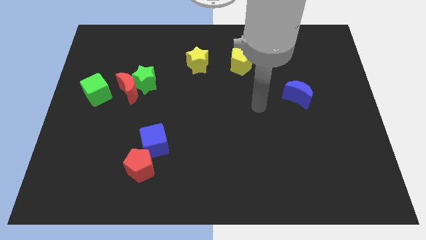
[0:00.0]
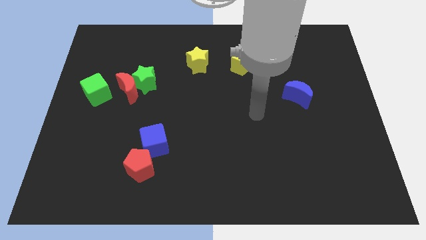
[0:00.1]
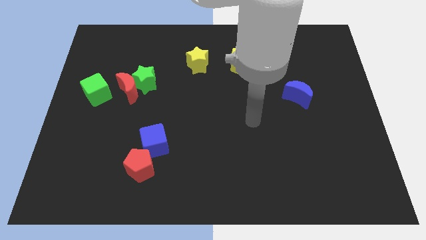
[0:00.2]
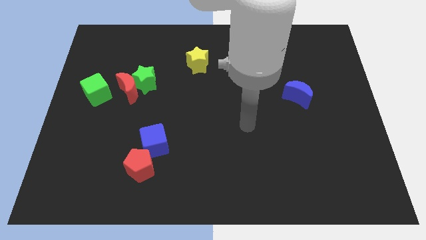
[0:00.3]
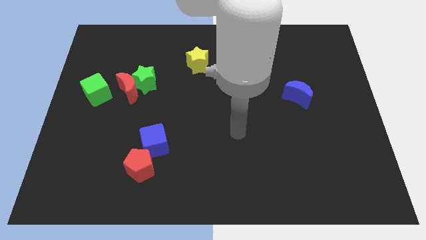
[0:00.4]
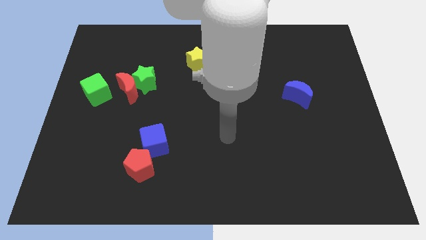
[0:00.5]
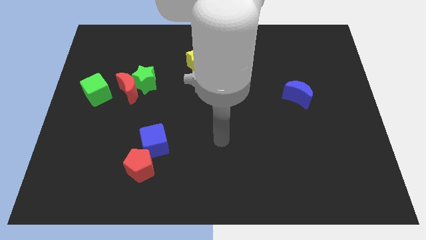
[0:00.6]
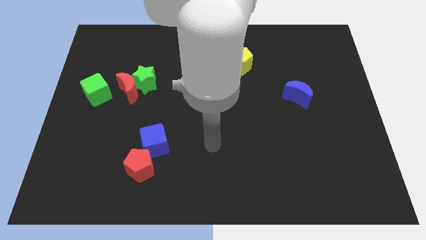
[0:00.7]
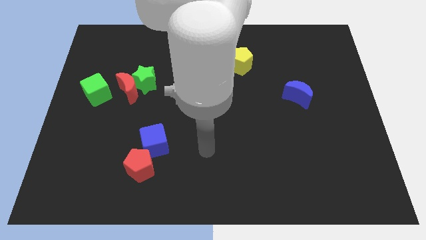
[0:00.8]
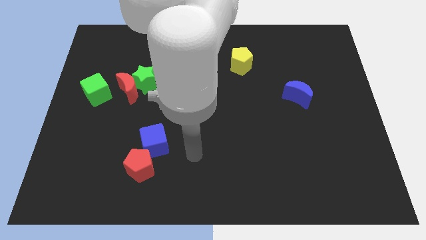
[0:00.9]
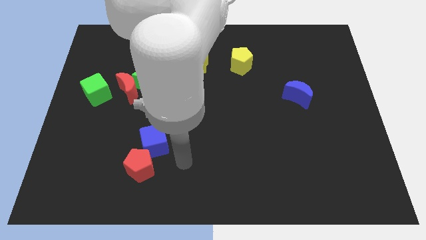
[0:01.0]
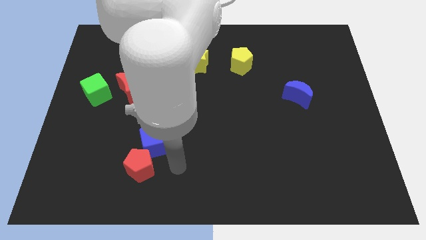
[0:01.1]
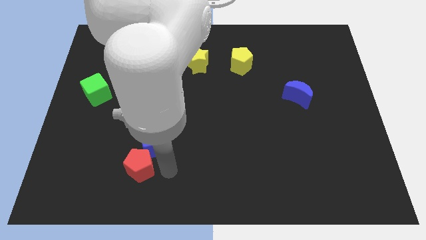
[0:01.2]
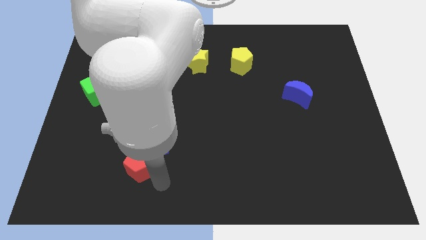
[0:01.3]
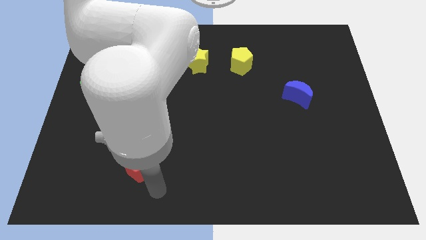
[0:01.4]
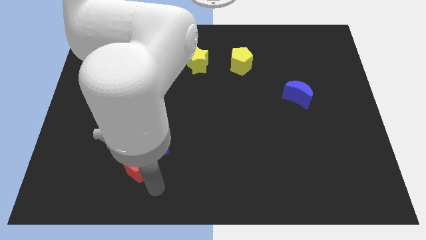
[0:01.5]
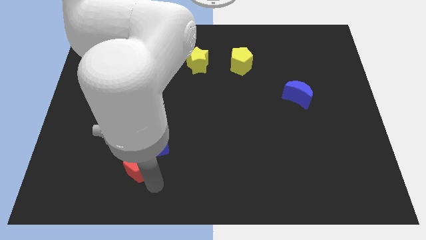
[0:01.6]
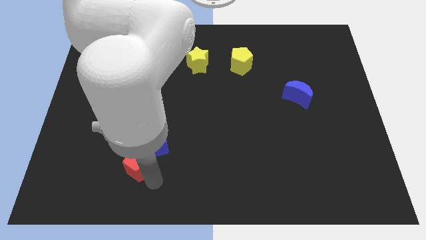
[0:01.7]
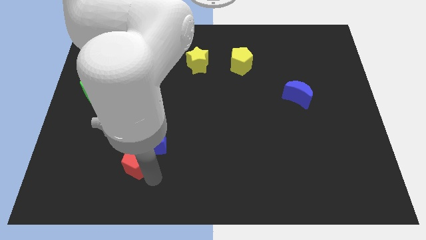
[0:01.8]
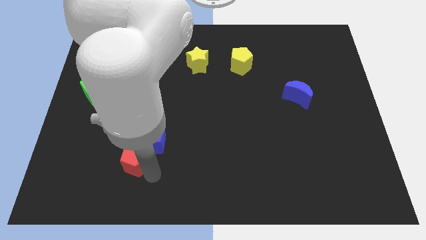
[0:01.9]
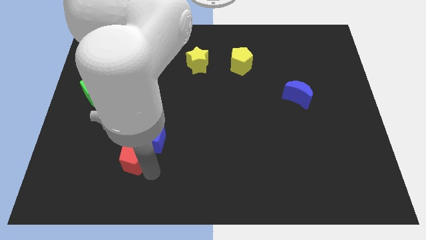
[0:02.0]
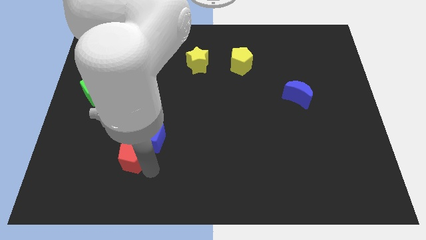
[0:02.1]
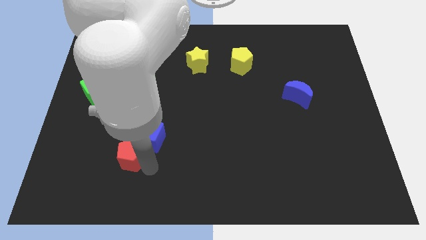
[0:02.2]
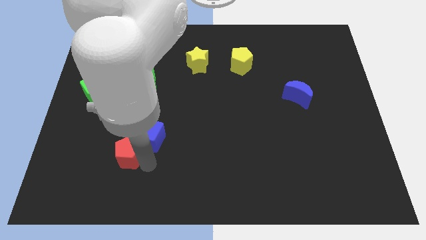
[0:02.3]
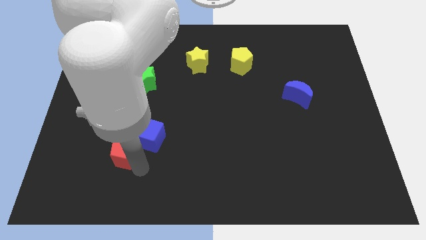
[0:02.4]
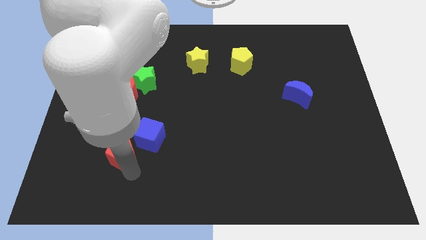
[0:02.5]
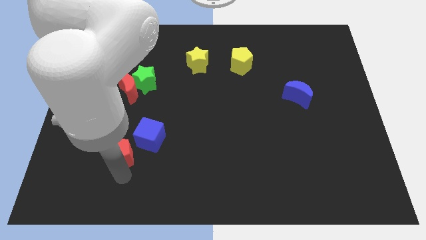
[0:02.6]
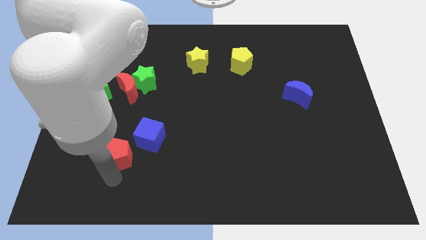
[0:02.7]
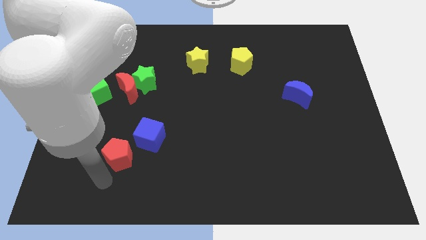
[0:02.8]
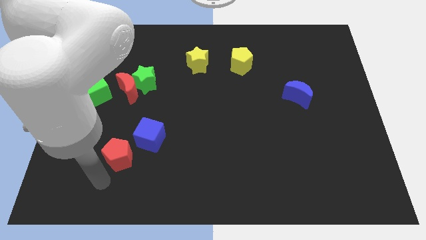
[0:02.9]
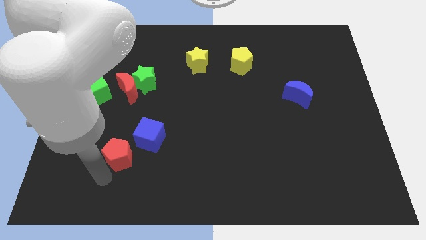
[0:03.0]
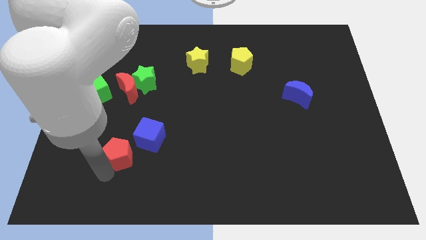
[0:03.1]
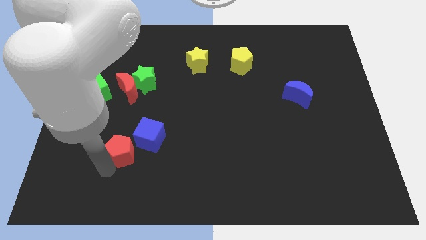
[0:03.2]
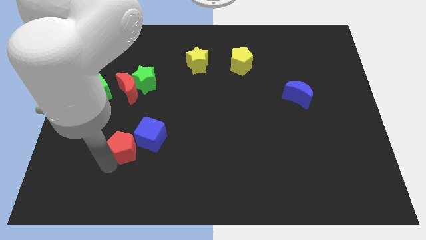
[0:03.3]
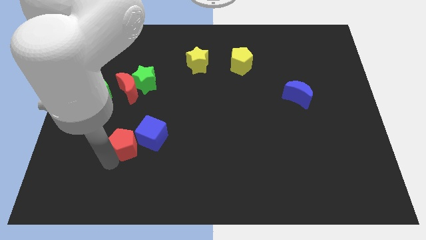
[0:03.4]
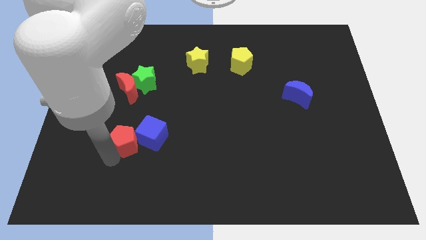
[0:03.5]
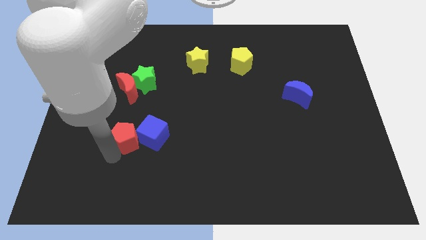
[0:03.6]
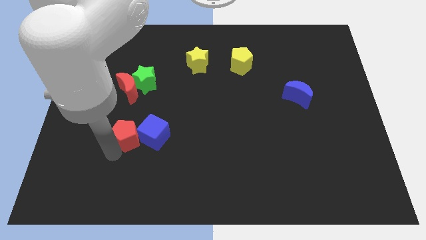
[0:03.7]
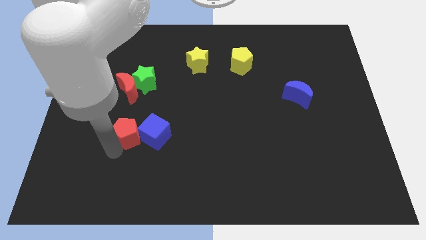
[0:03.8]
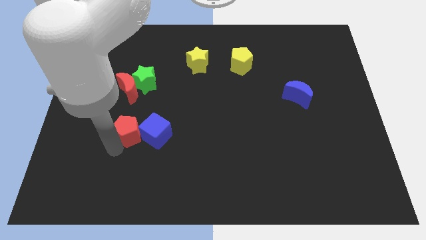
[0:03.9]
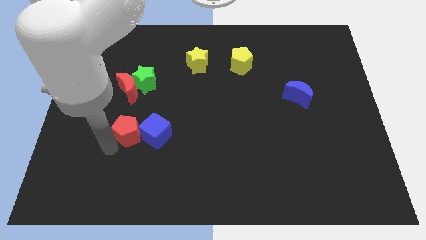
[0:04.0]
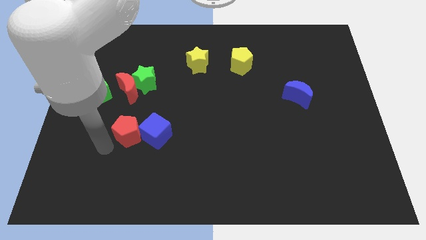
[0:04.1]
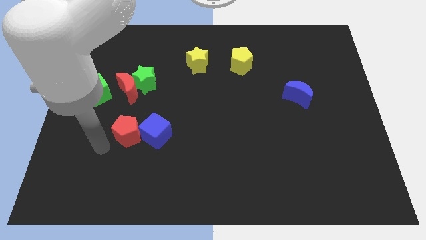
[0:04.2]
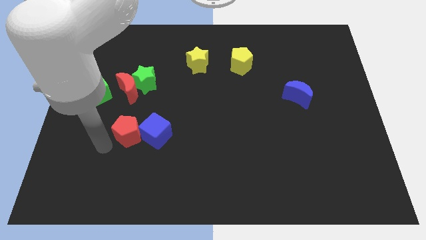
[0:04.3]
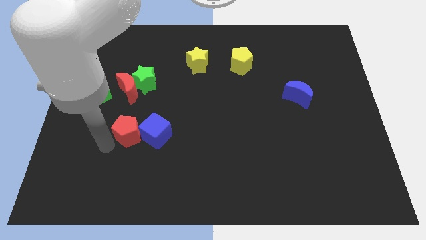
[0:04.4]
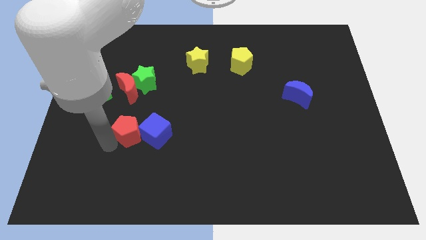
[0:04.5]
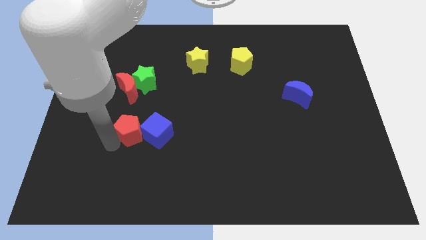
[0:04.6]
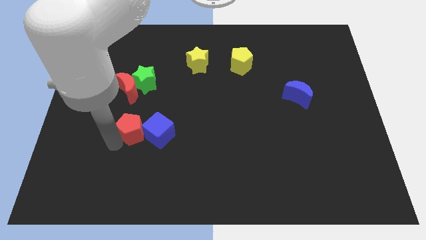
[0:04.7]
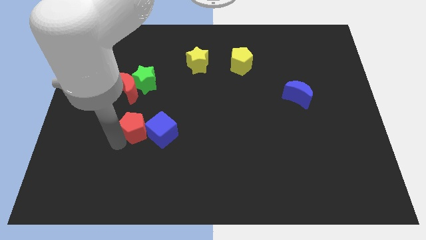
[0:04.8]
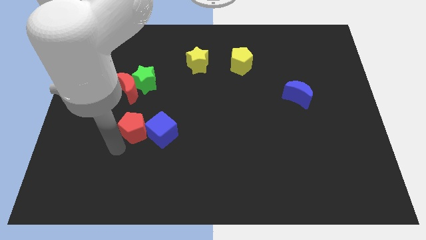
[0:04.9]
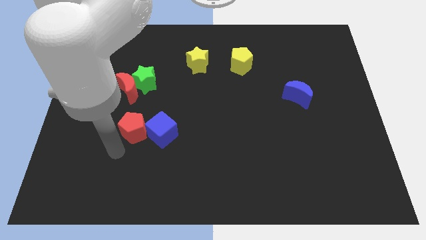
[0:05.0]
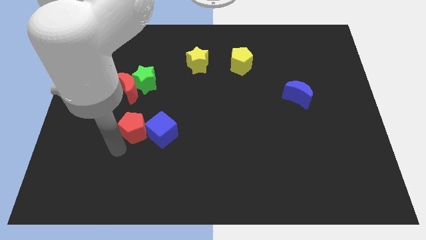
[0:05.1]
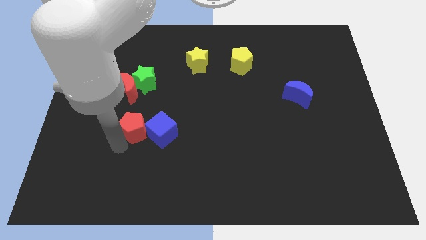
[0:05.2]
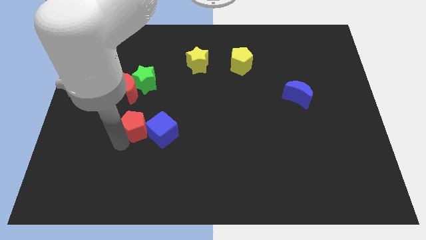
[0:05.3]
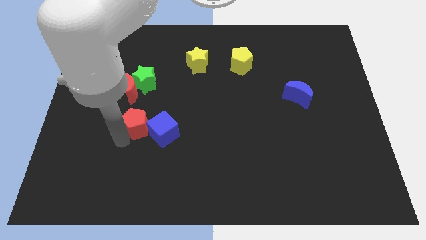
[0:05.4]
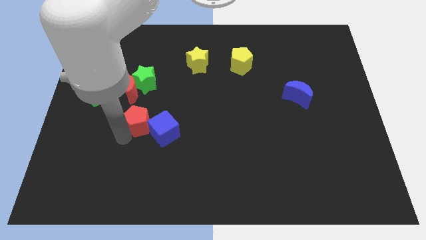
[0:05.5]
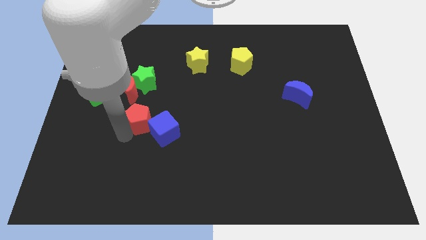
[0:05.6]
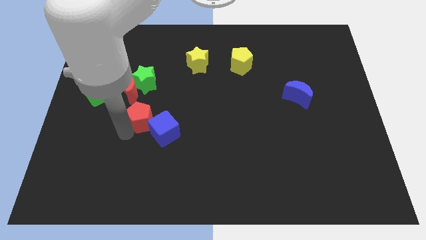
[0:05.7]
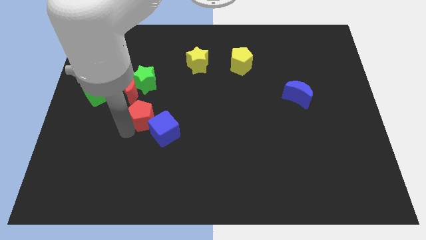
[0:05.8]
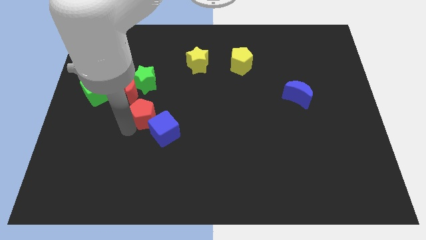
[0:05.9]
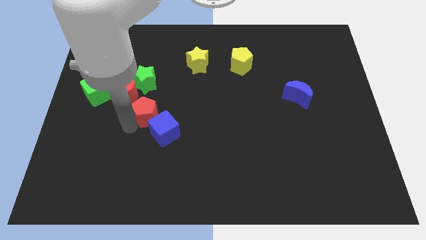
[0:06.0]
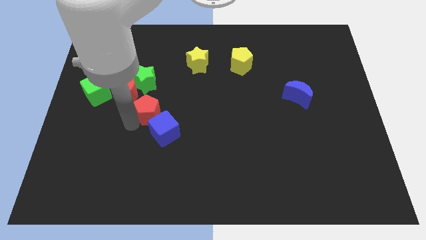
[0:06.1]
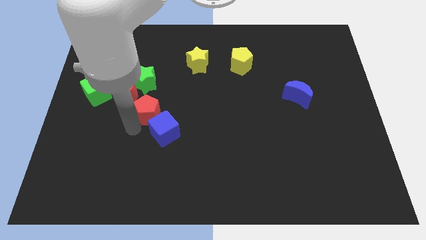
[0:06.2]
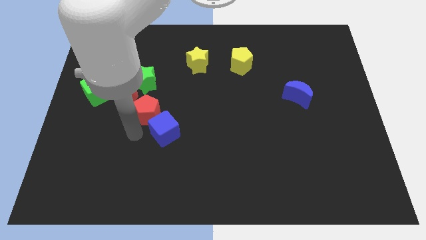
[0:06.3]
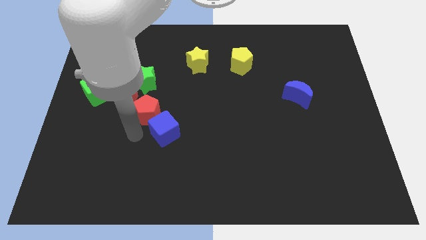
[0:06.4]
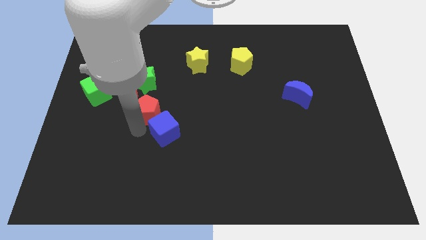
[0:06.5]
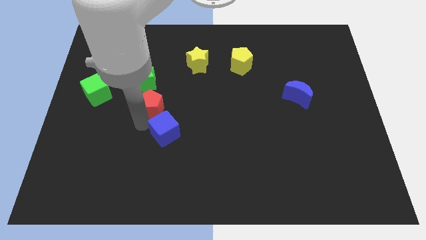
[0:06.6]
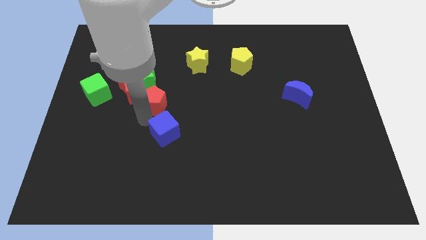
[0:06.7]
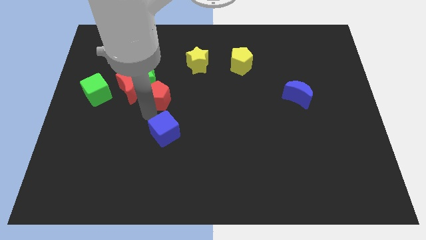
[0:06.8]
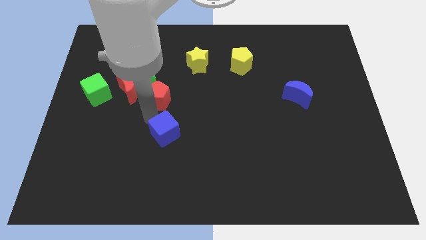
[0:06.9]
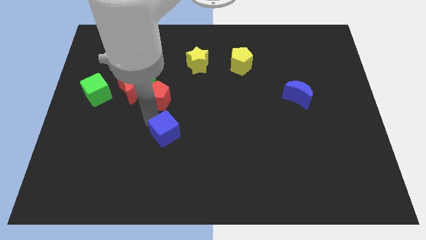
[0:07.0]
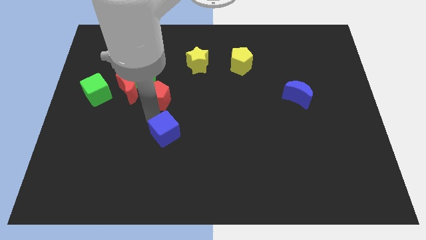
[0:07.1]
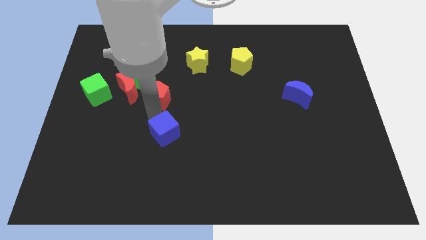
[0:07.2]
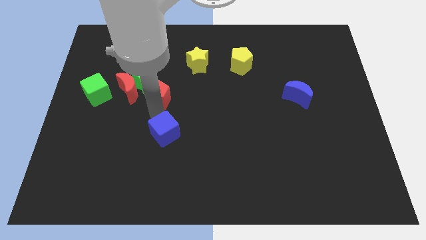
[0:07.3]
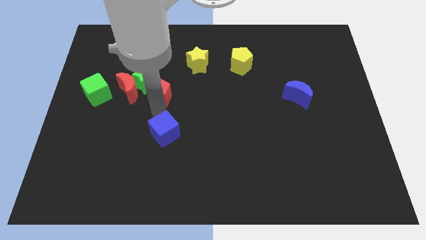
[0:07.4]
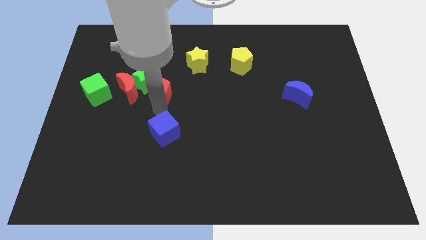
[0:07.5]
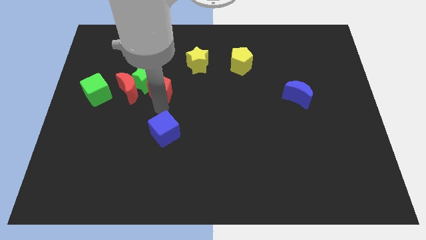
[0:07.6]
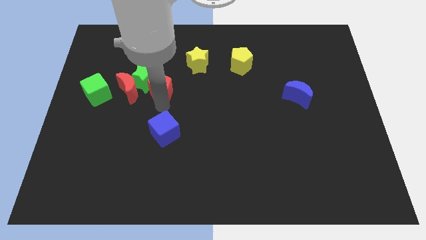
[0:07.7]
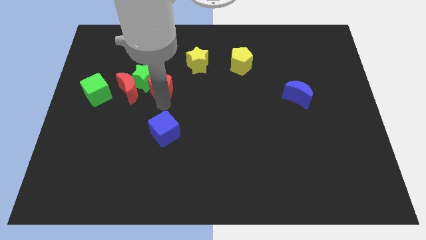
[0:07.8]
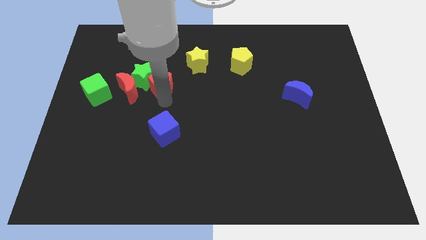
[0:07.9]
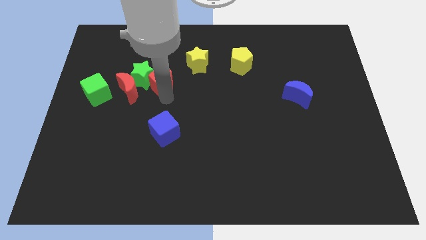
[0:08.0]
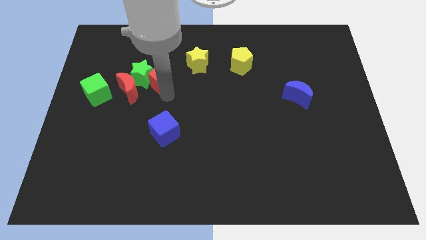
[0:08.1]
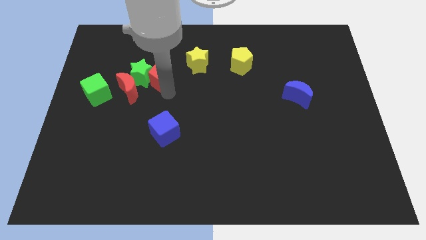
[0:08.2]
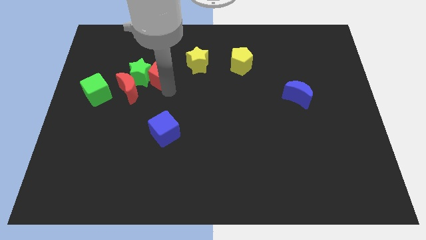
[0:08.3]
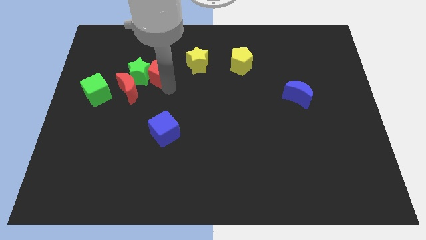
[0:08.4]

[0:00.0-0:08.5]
put the red pentagon to the left of the yellow star
